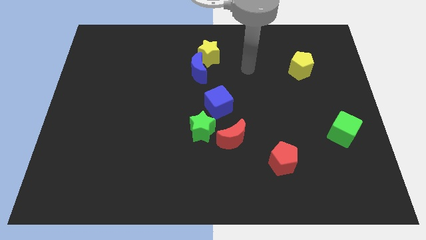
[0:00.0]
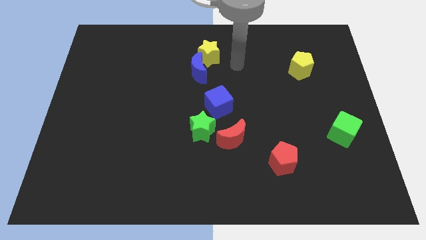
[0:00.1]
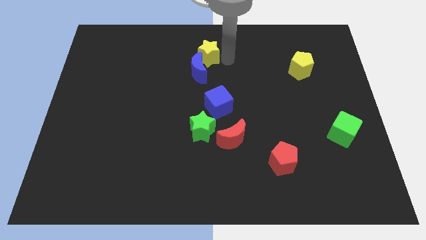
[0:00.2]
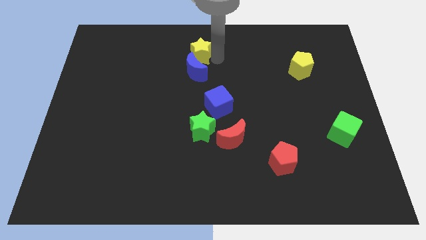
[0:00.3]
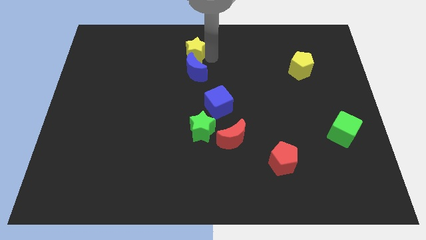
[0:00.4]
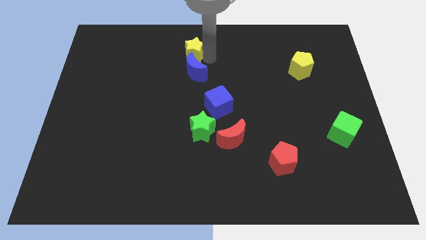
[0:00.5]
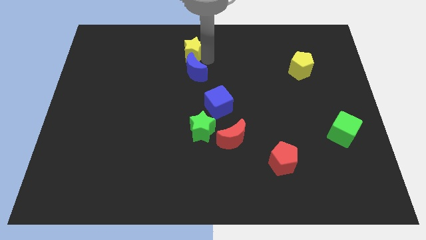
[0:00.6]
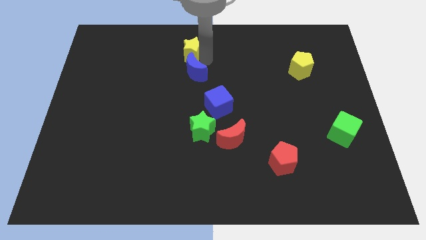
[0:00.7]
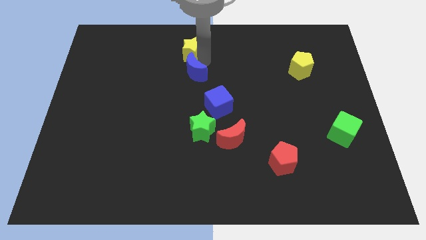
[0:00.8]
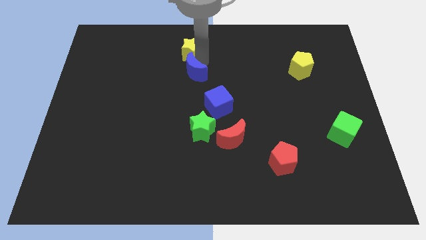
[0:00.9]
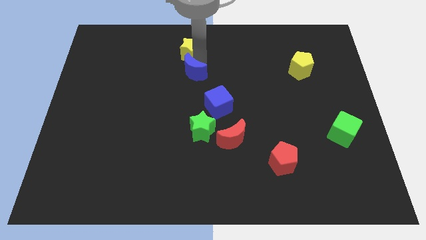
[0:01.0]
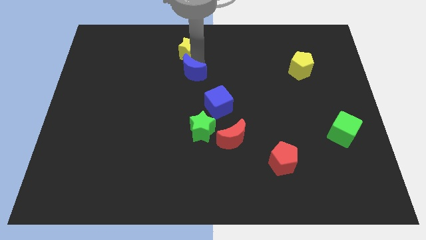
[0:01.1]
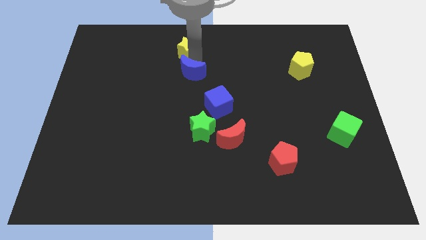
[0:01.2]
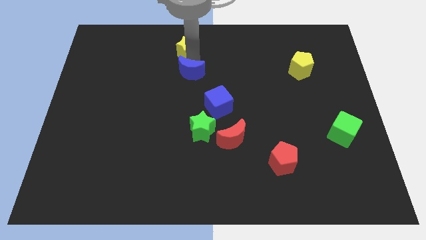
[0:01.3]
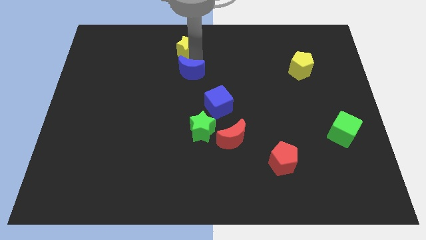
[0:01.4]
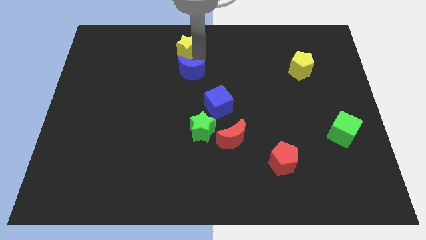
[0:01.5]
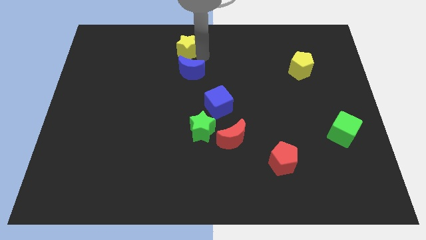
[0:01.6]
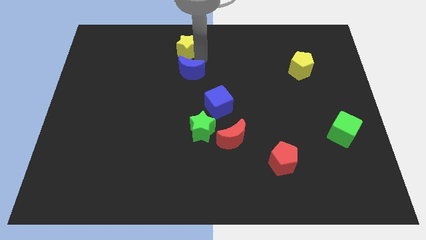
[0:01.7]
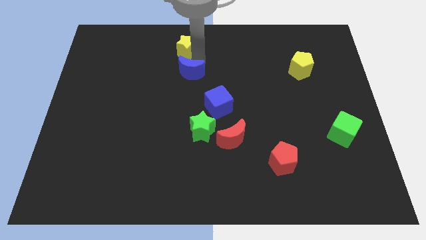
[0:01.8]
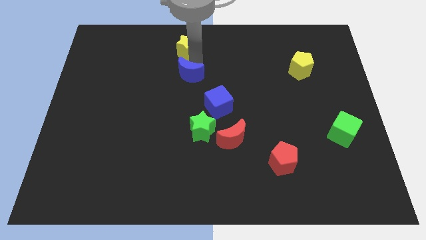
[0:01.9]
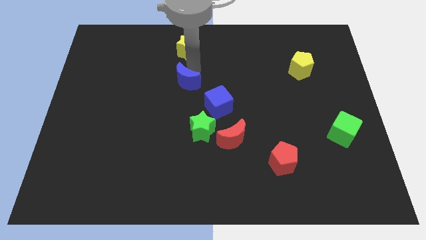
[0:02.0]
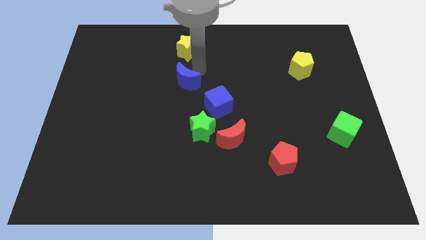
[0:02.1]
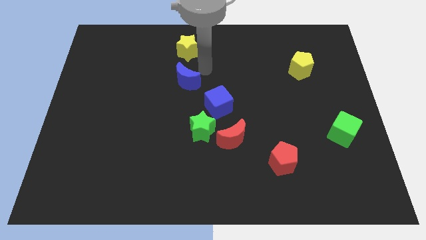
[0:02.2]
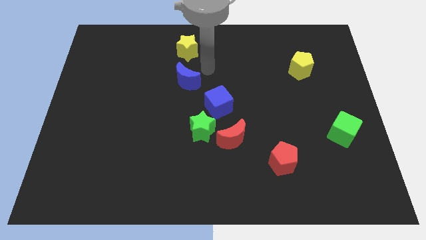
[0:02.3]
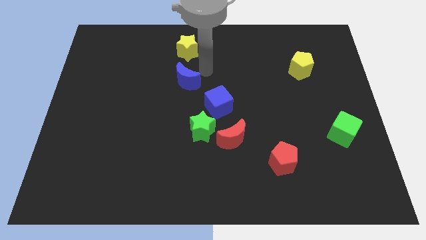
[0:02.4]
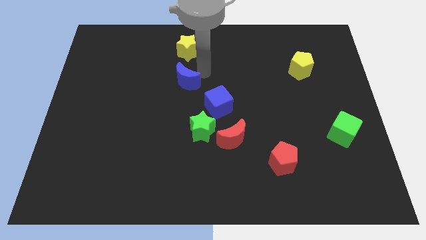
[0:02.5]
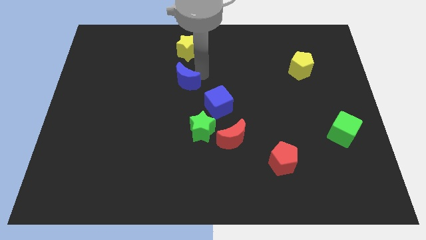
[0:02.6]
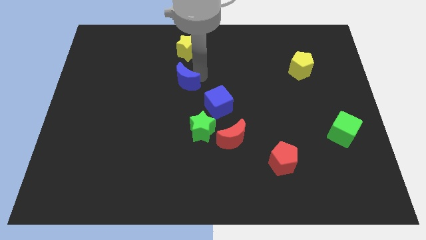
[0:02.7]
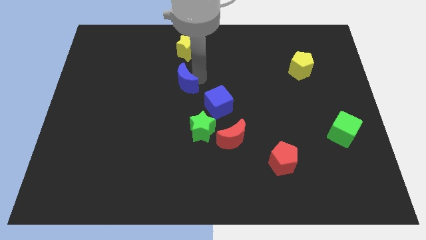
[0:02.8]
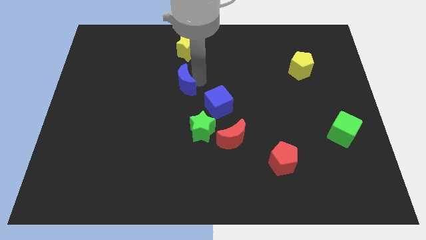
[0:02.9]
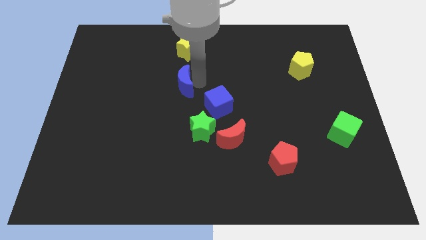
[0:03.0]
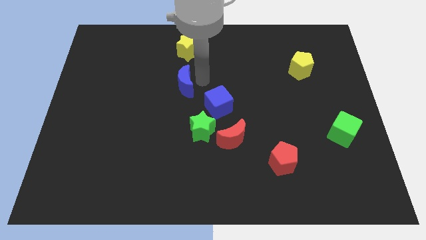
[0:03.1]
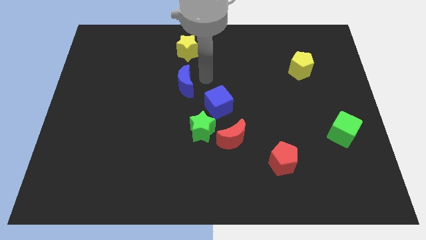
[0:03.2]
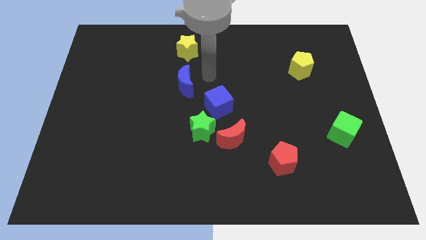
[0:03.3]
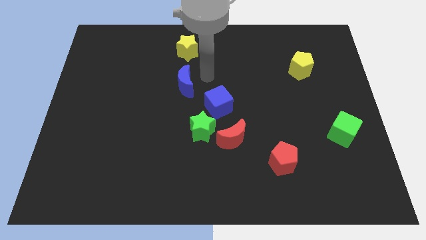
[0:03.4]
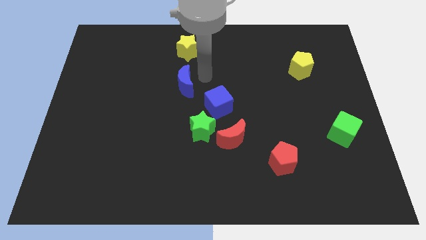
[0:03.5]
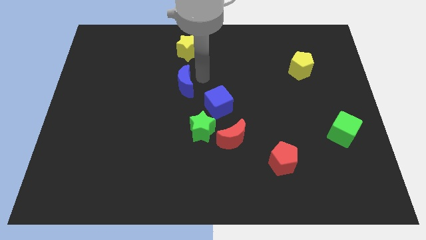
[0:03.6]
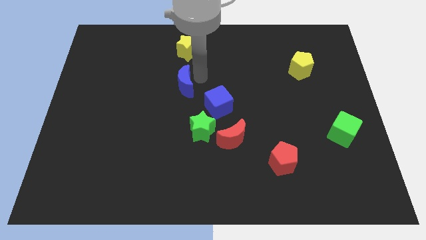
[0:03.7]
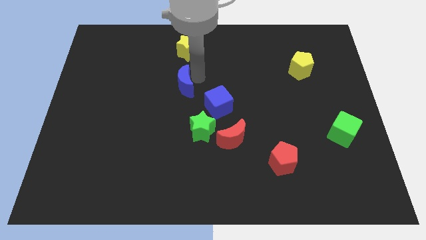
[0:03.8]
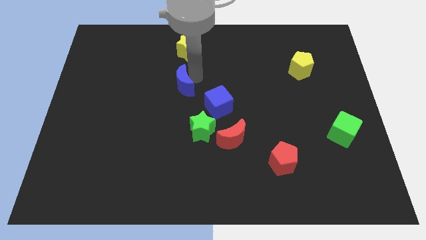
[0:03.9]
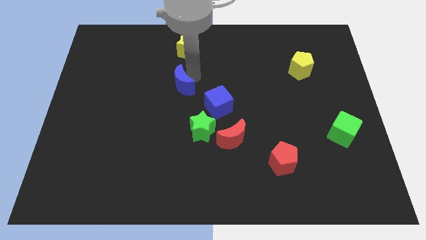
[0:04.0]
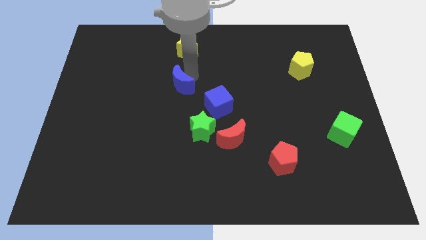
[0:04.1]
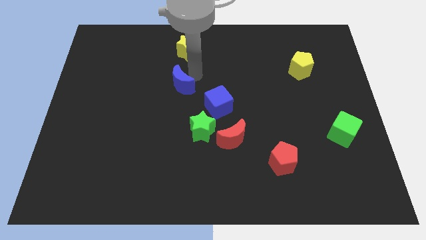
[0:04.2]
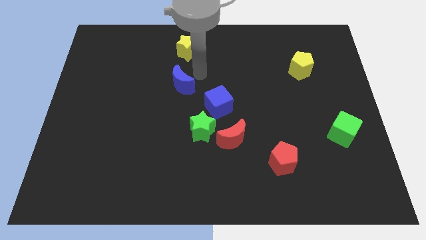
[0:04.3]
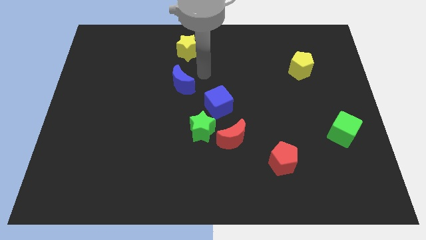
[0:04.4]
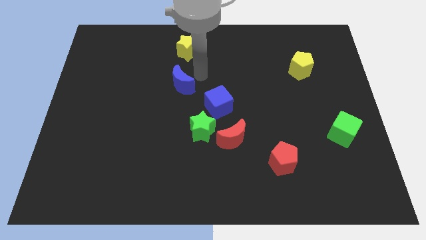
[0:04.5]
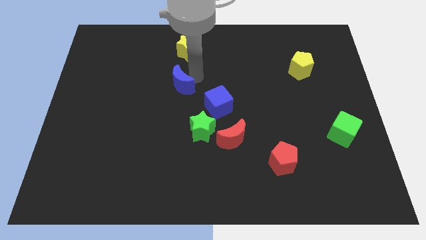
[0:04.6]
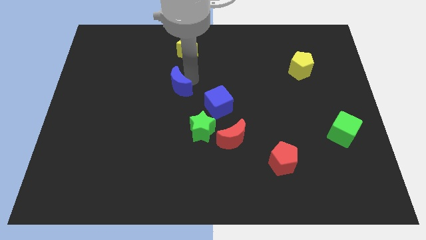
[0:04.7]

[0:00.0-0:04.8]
slightly move the blue moon down and to the left diagonally

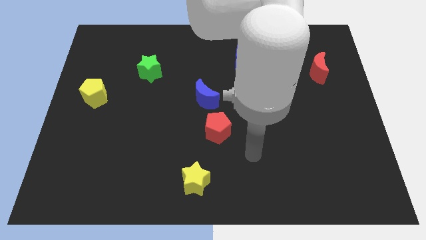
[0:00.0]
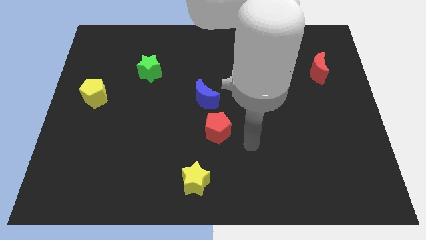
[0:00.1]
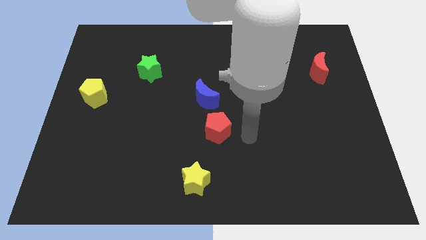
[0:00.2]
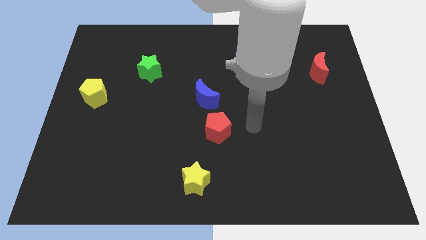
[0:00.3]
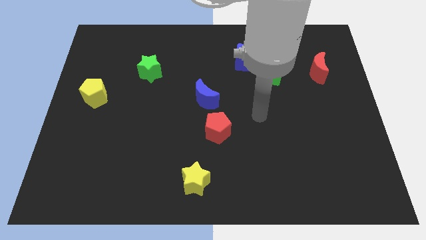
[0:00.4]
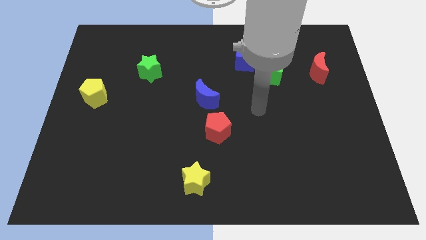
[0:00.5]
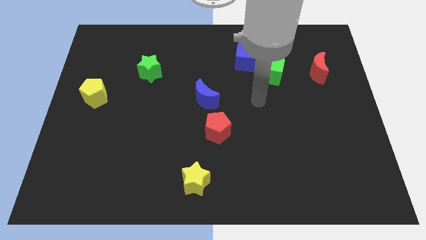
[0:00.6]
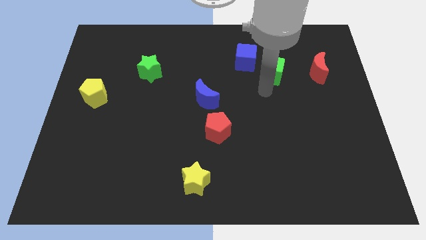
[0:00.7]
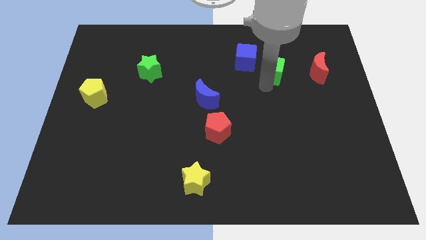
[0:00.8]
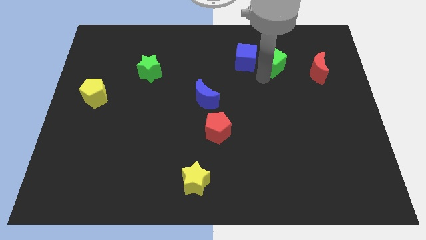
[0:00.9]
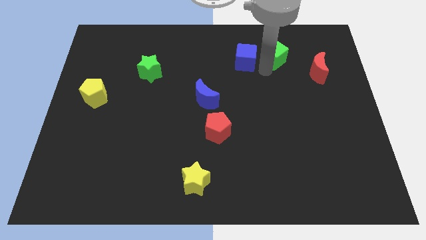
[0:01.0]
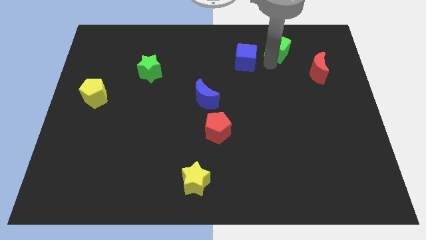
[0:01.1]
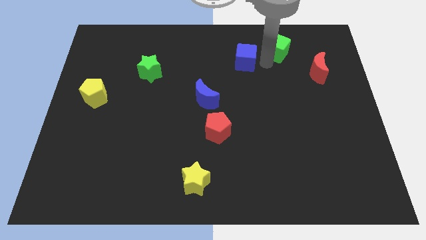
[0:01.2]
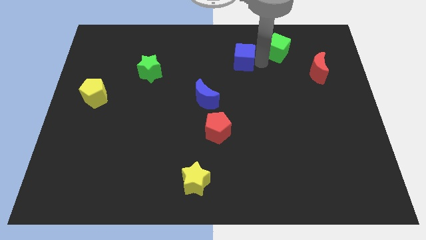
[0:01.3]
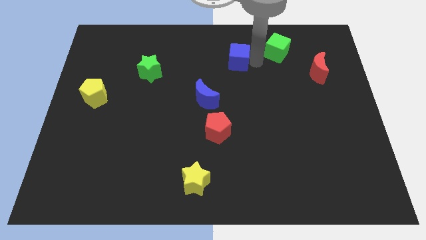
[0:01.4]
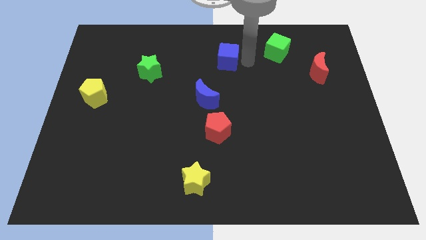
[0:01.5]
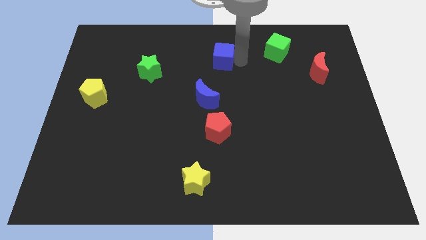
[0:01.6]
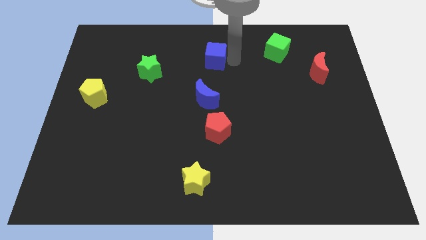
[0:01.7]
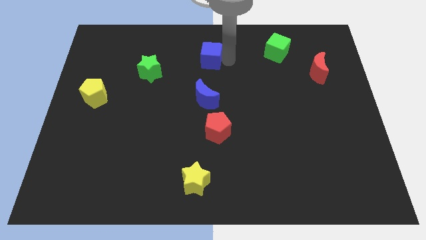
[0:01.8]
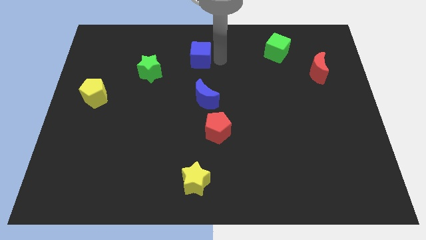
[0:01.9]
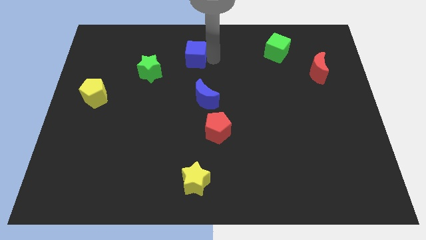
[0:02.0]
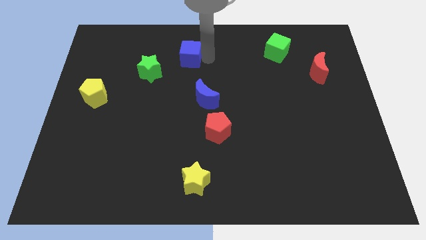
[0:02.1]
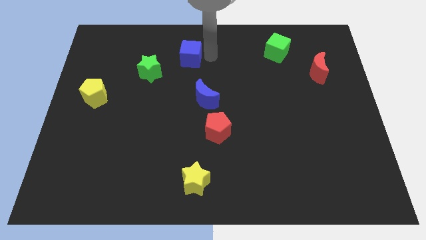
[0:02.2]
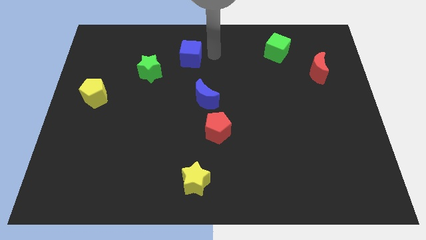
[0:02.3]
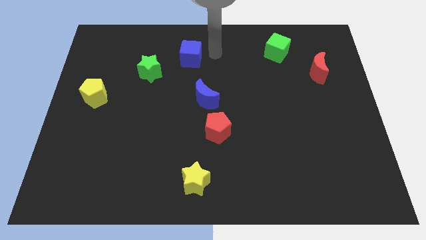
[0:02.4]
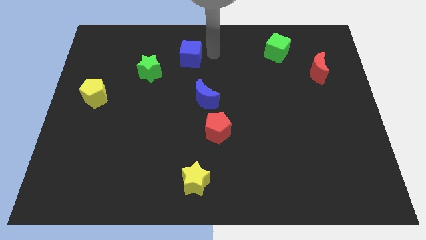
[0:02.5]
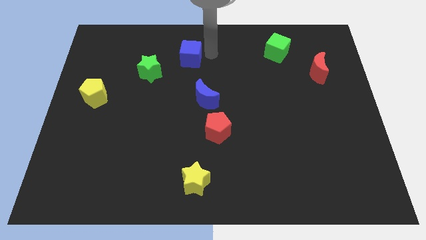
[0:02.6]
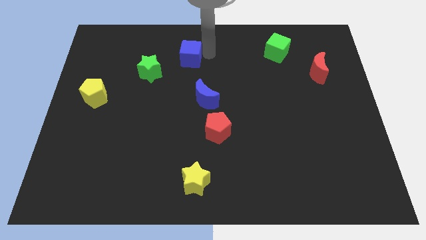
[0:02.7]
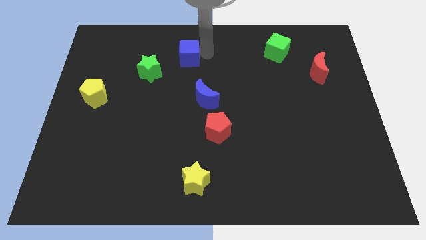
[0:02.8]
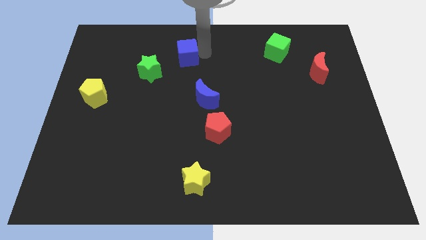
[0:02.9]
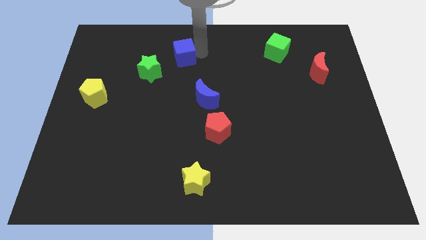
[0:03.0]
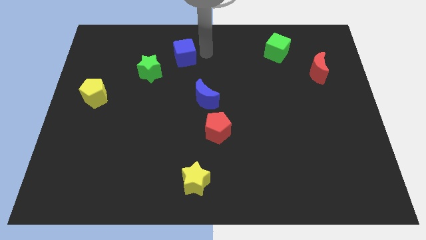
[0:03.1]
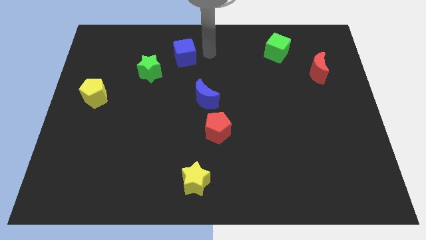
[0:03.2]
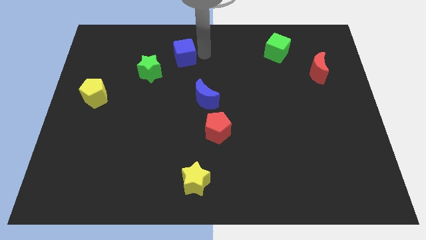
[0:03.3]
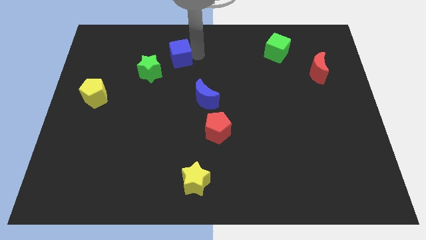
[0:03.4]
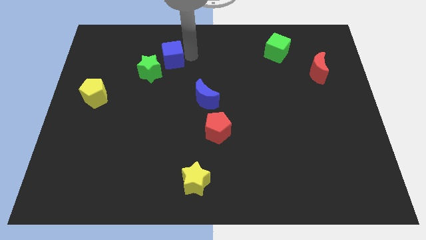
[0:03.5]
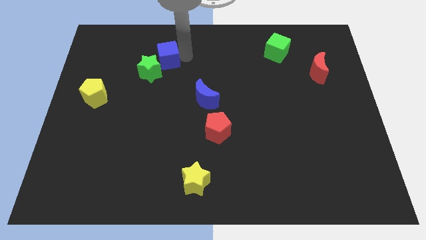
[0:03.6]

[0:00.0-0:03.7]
slide the blue cube left
